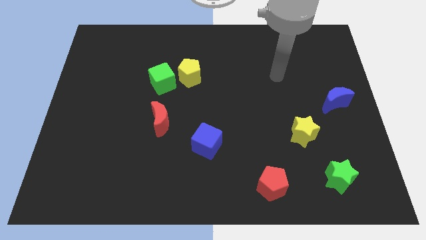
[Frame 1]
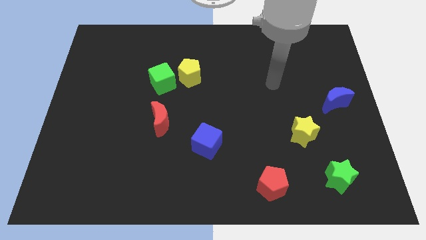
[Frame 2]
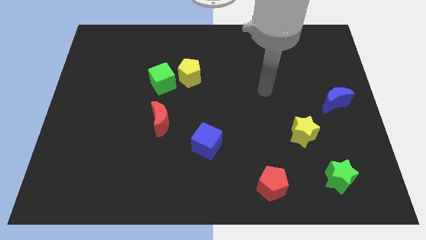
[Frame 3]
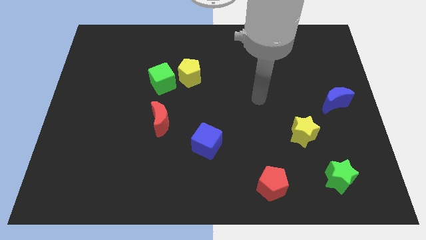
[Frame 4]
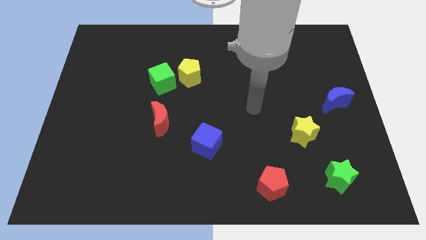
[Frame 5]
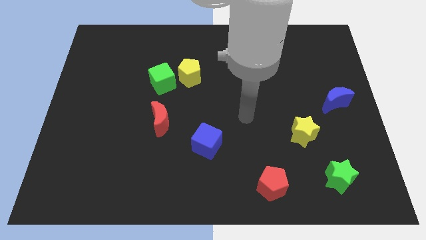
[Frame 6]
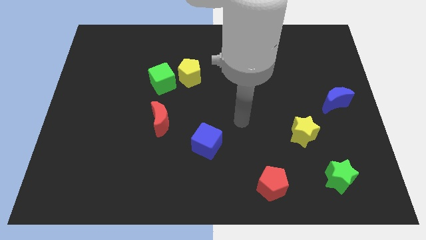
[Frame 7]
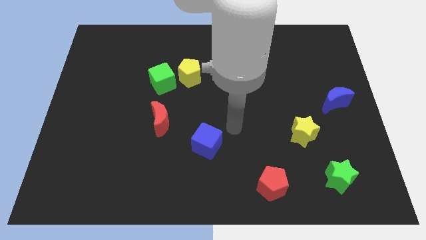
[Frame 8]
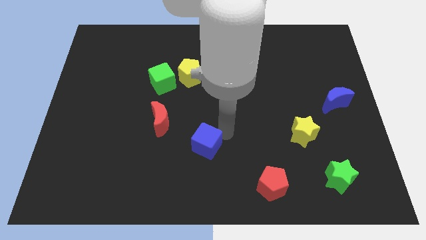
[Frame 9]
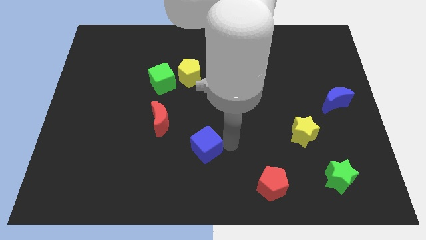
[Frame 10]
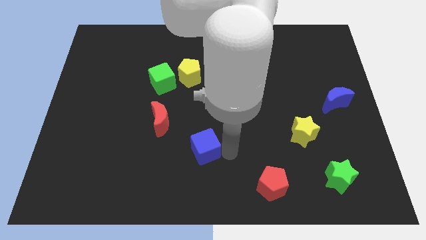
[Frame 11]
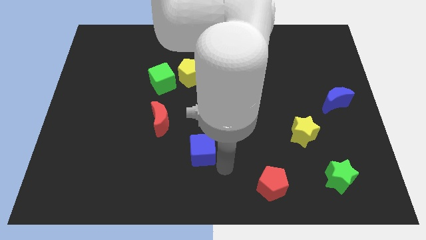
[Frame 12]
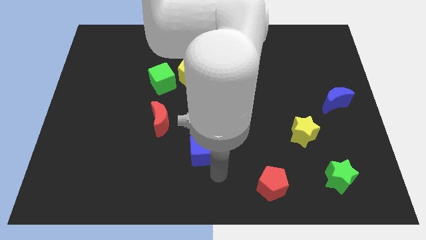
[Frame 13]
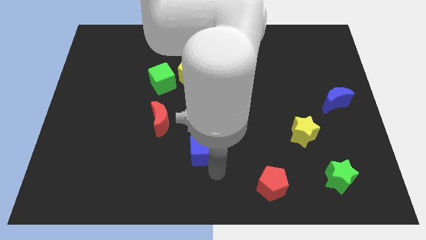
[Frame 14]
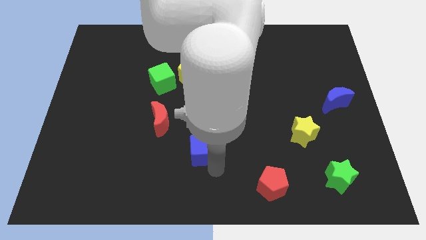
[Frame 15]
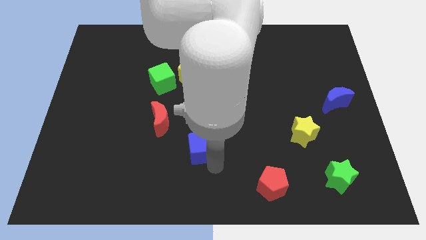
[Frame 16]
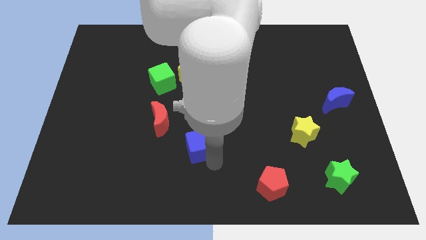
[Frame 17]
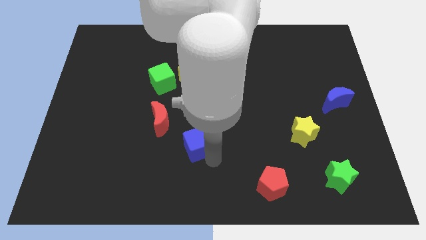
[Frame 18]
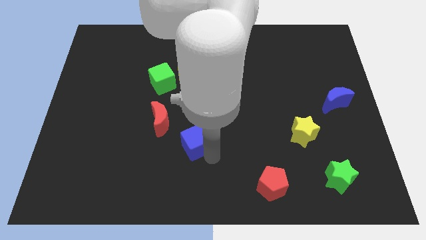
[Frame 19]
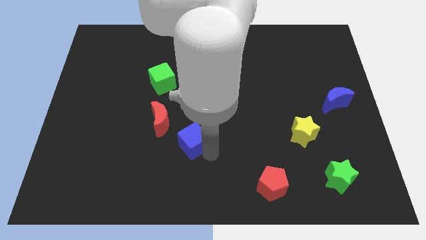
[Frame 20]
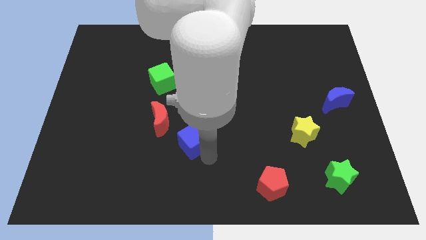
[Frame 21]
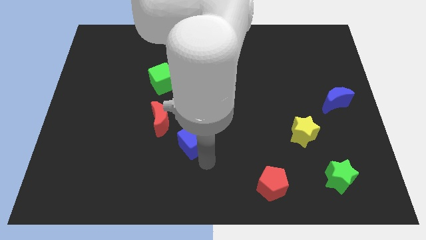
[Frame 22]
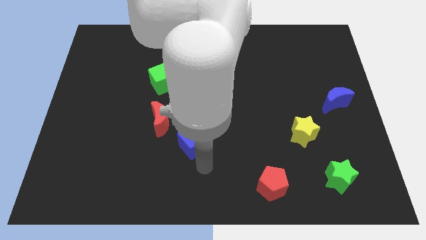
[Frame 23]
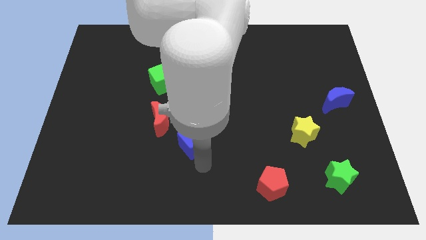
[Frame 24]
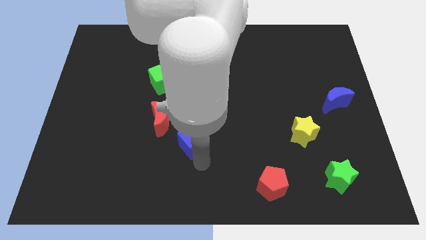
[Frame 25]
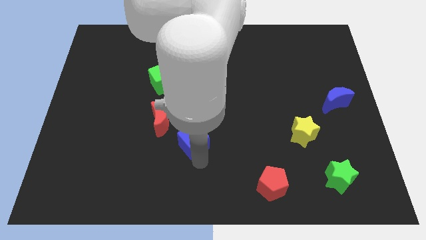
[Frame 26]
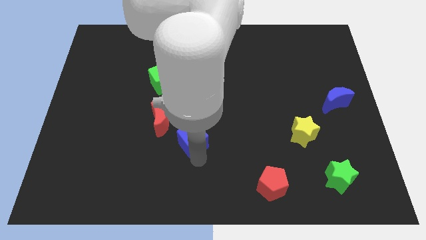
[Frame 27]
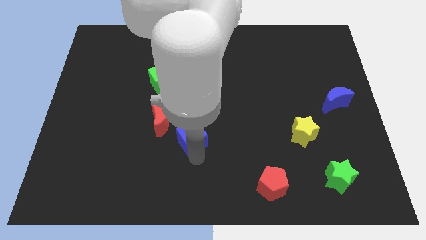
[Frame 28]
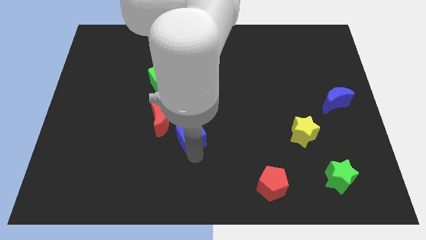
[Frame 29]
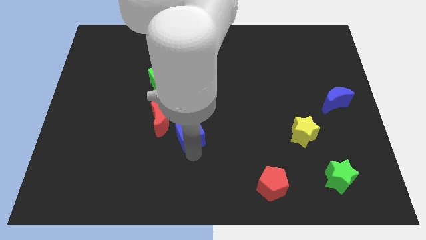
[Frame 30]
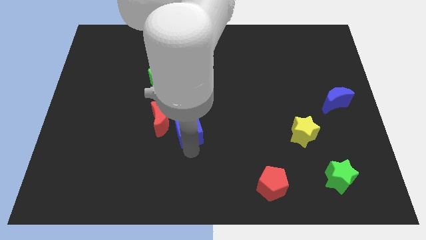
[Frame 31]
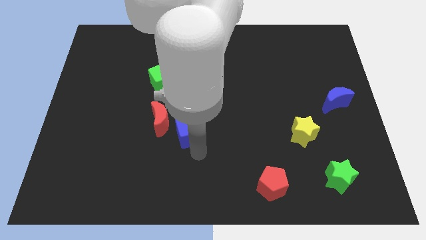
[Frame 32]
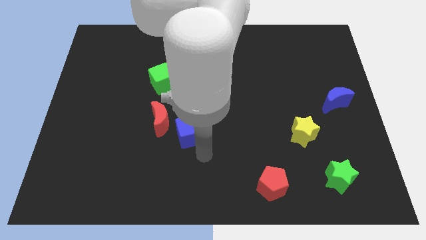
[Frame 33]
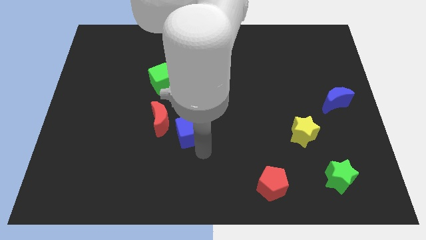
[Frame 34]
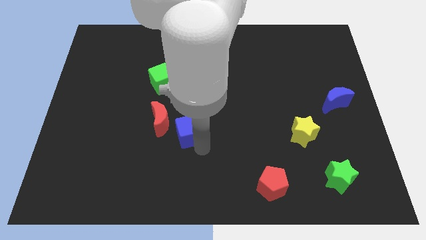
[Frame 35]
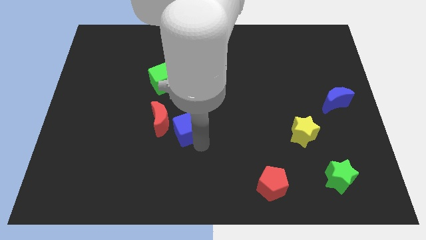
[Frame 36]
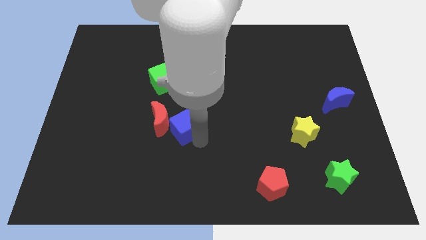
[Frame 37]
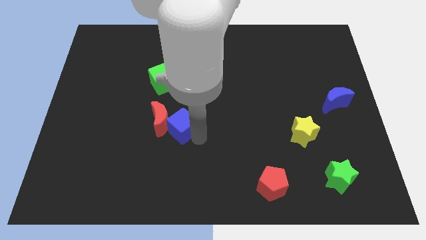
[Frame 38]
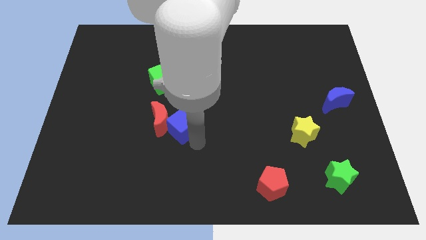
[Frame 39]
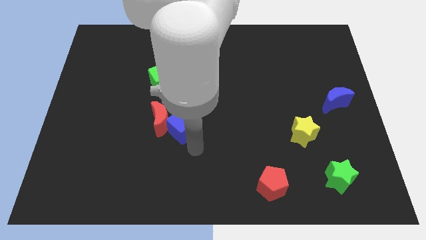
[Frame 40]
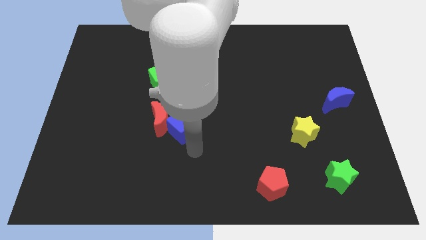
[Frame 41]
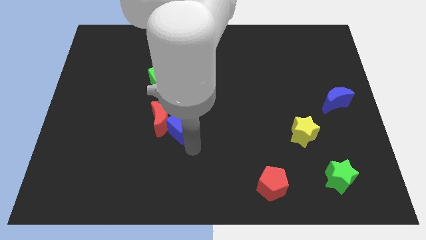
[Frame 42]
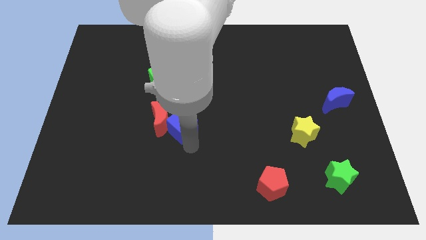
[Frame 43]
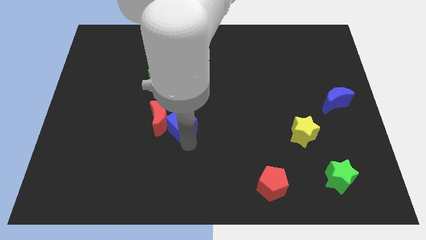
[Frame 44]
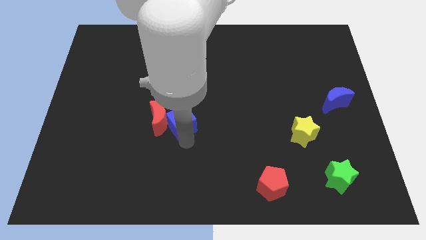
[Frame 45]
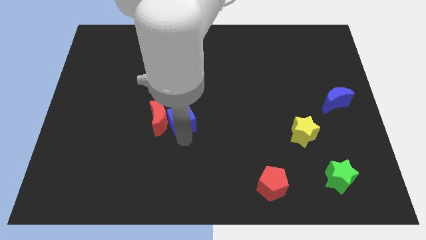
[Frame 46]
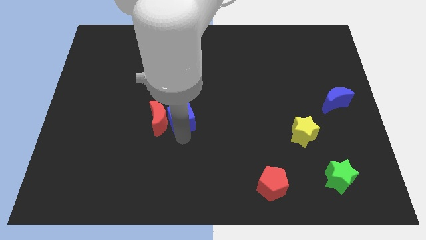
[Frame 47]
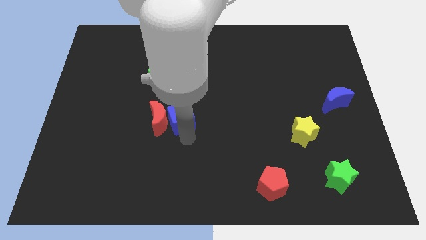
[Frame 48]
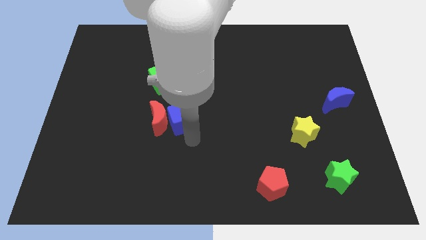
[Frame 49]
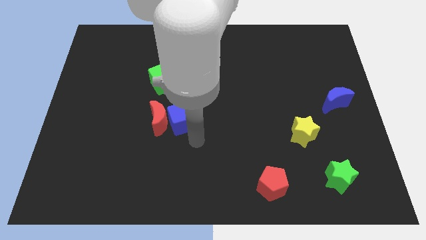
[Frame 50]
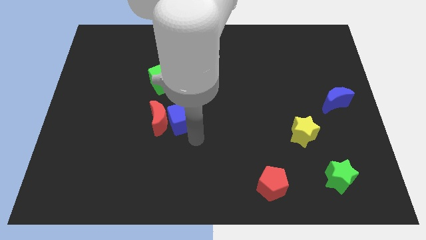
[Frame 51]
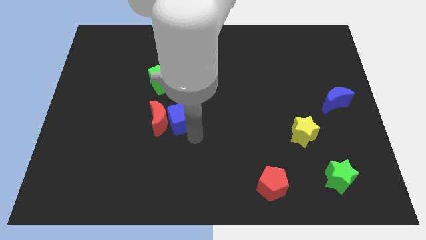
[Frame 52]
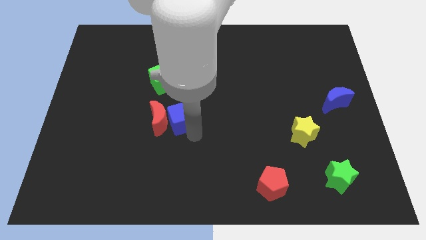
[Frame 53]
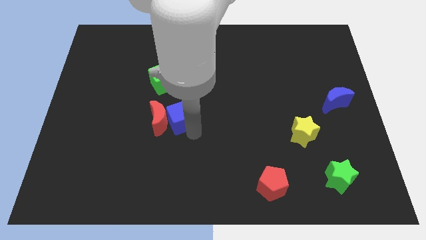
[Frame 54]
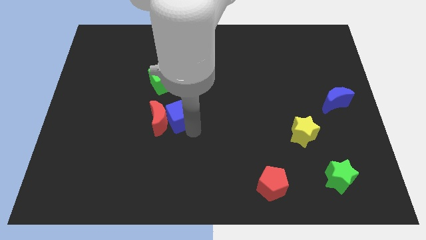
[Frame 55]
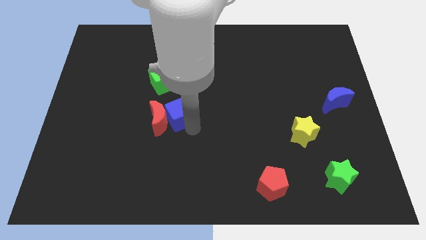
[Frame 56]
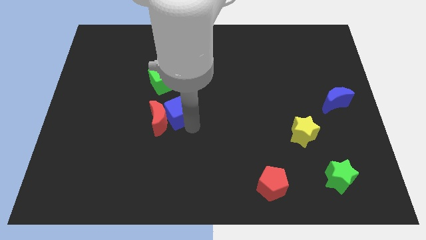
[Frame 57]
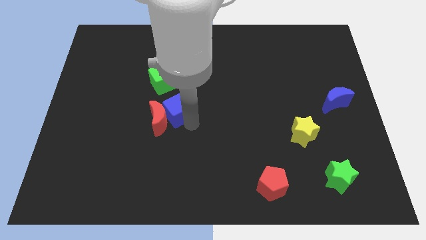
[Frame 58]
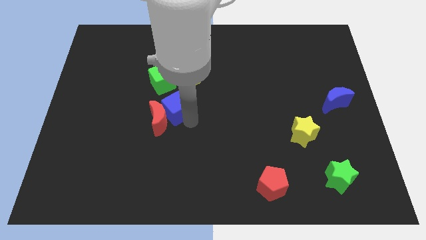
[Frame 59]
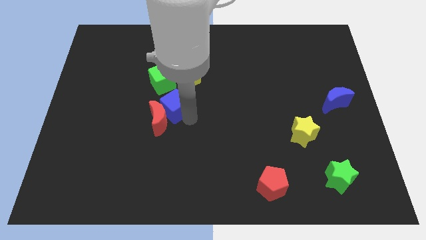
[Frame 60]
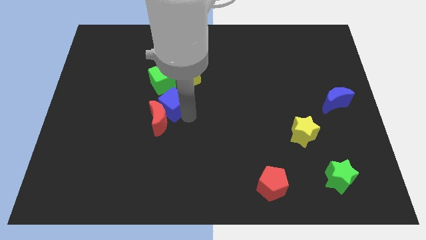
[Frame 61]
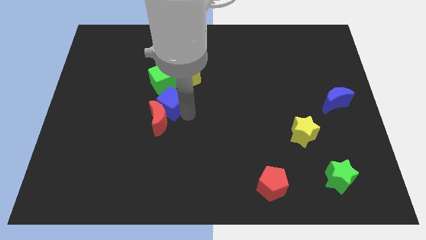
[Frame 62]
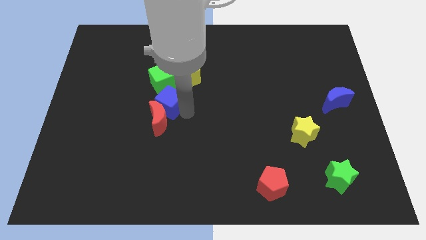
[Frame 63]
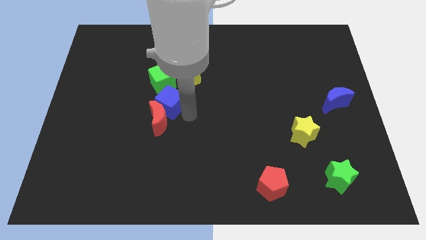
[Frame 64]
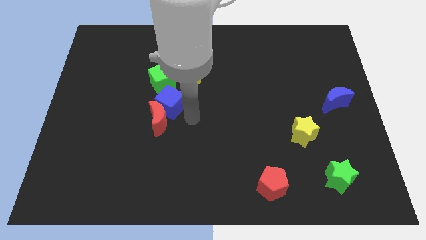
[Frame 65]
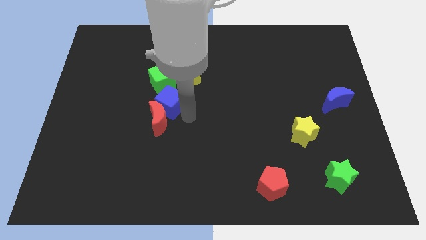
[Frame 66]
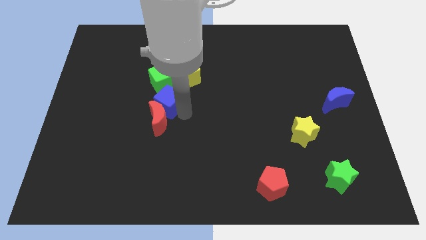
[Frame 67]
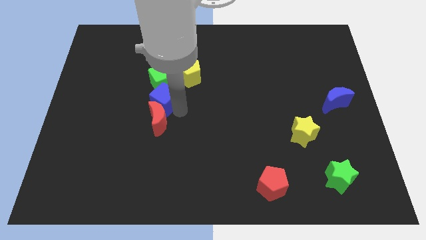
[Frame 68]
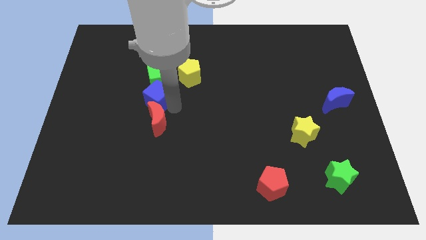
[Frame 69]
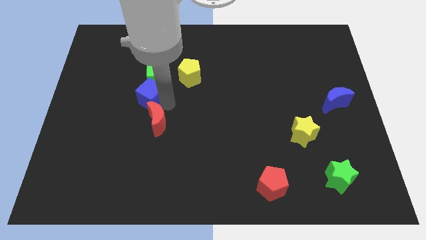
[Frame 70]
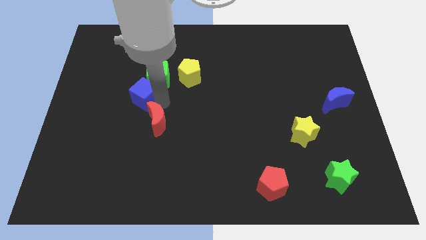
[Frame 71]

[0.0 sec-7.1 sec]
move the blue cube upwards and left diagonally

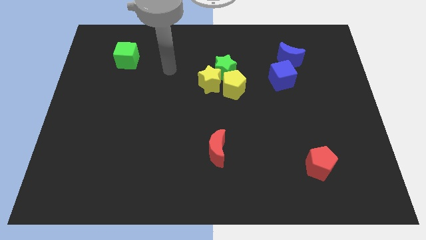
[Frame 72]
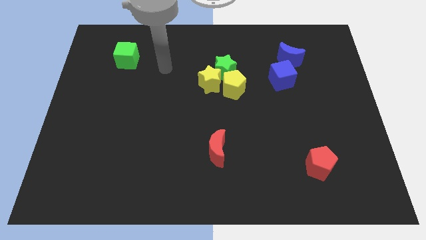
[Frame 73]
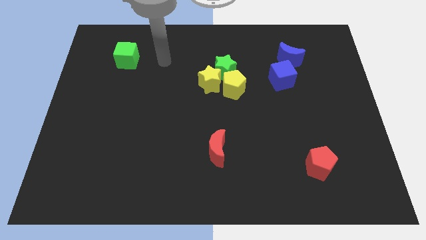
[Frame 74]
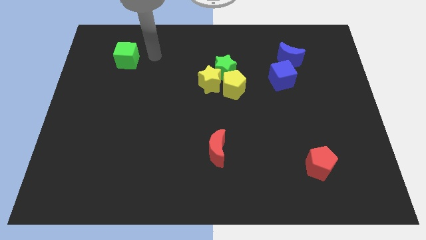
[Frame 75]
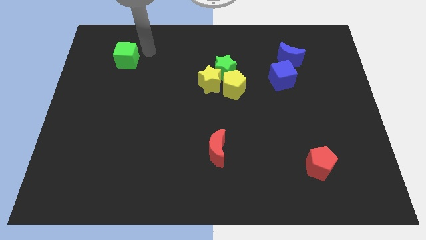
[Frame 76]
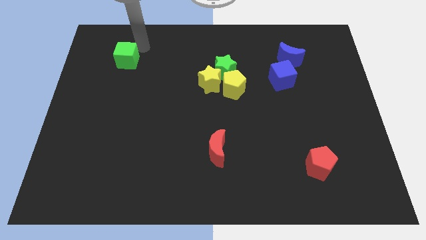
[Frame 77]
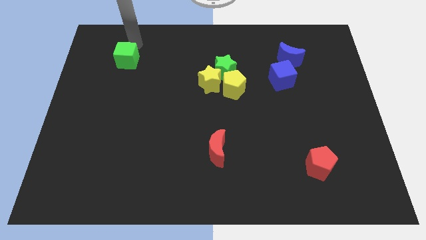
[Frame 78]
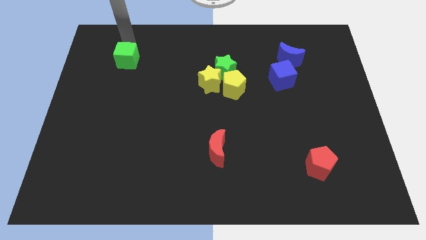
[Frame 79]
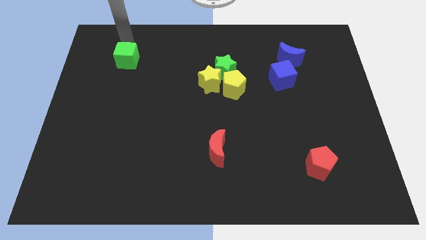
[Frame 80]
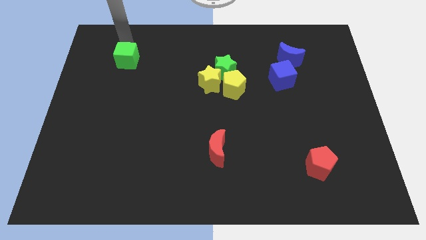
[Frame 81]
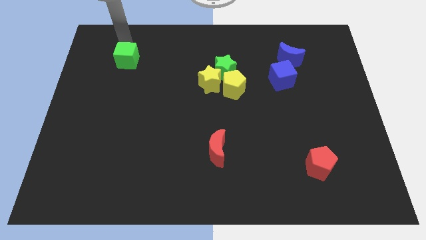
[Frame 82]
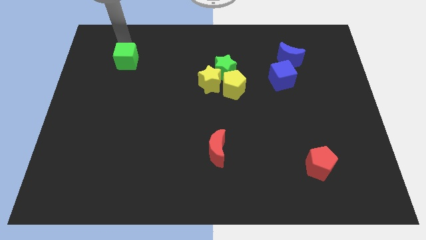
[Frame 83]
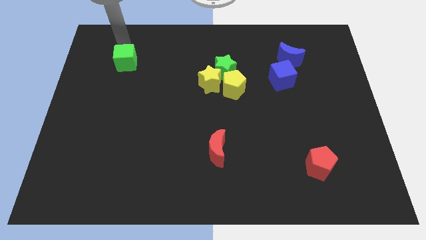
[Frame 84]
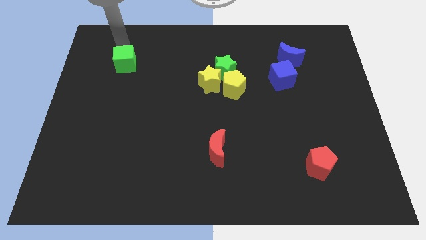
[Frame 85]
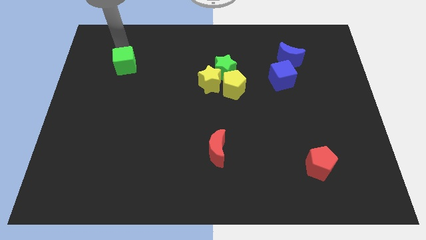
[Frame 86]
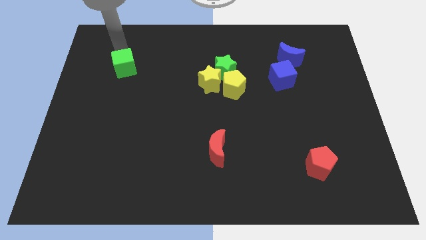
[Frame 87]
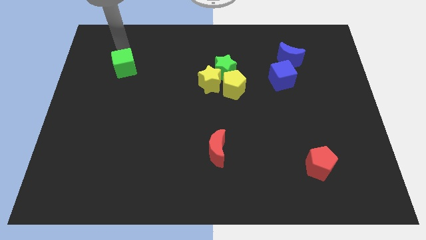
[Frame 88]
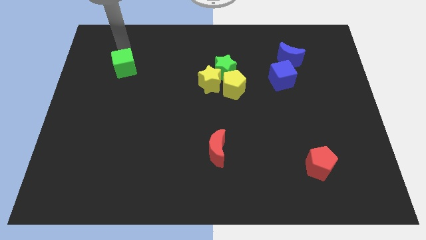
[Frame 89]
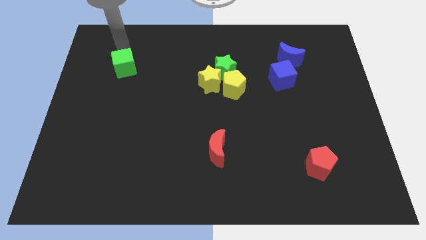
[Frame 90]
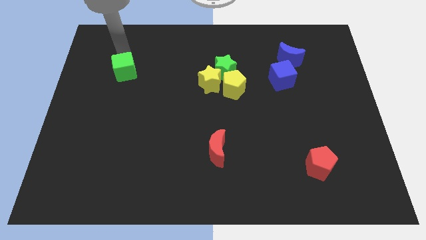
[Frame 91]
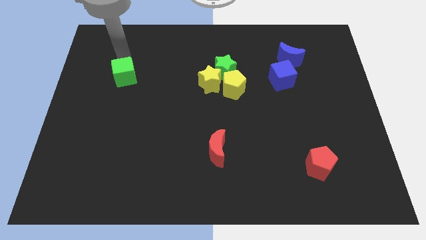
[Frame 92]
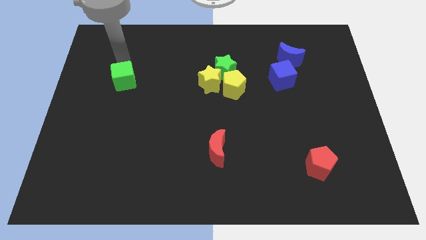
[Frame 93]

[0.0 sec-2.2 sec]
slightly move the green cube downwards
